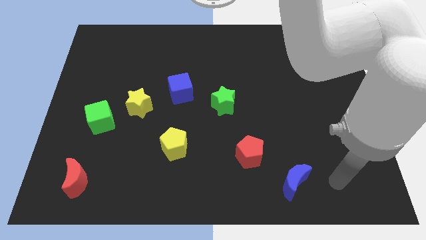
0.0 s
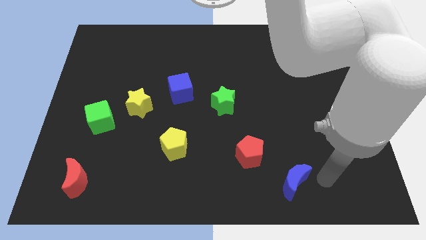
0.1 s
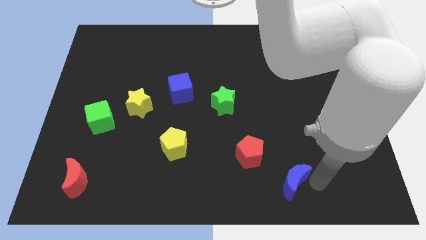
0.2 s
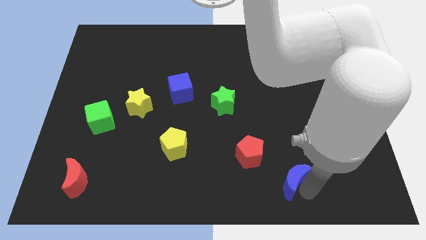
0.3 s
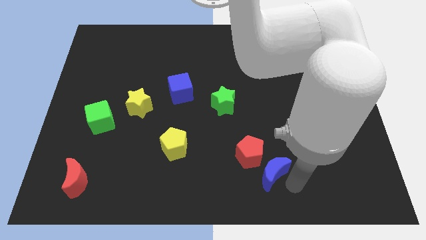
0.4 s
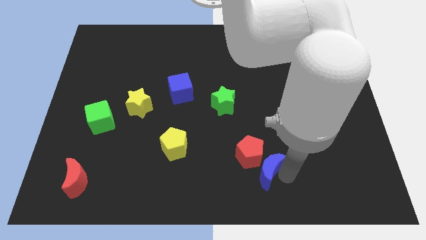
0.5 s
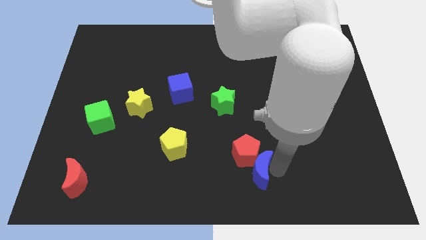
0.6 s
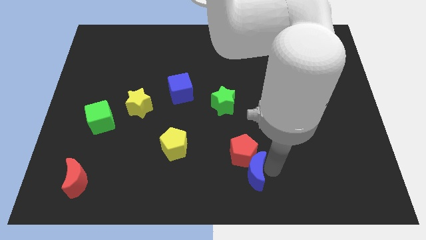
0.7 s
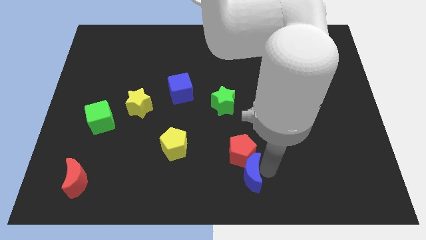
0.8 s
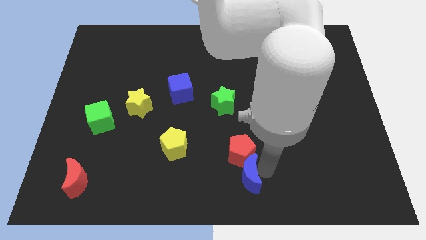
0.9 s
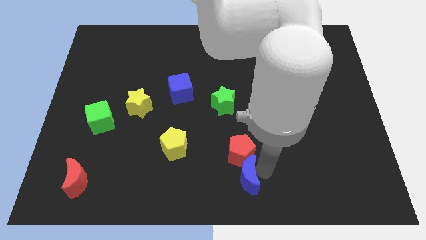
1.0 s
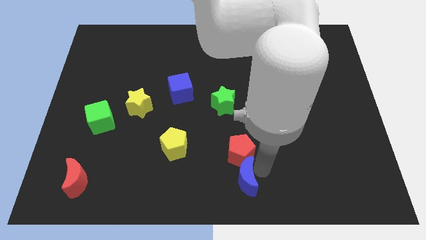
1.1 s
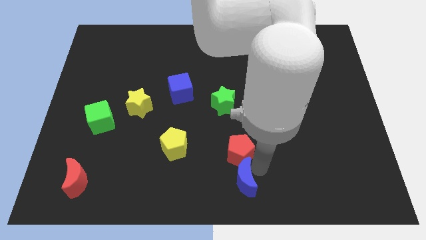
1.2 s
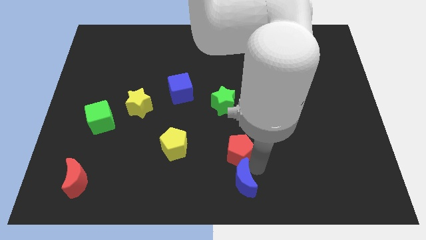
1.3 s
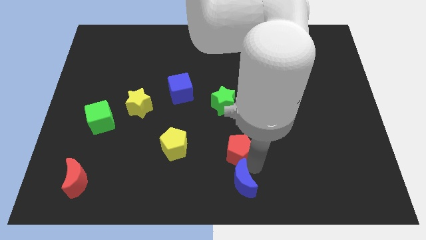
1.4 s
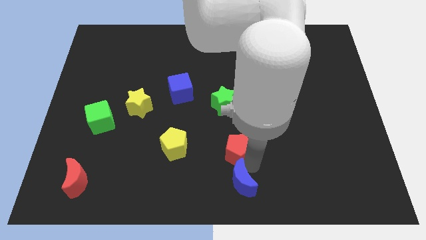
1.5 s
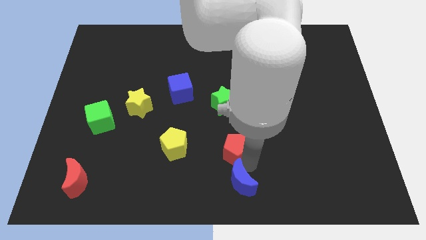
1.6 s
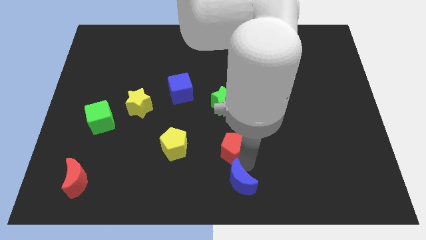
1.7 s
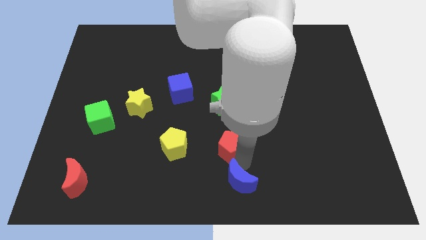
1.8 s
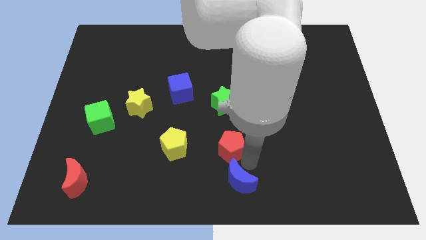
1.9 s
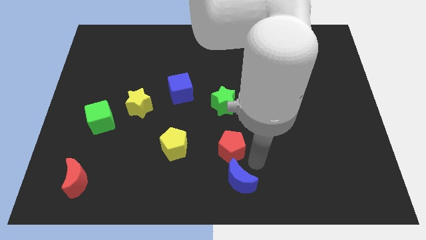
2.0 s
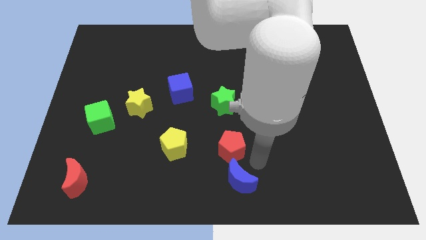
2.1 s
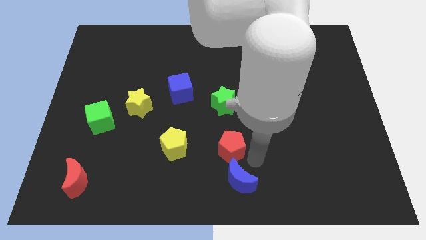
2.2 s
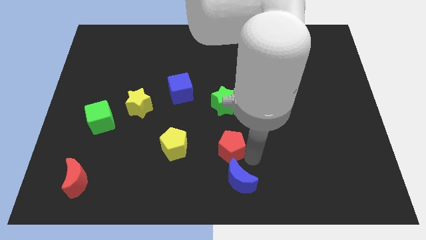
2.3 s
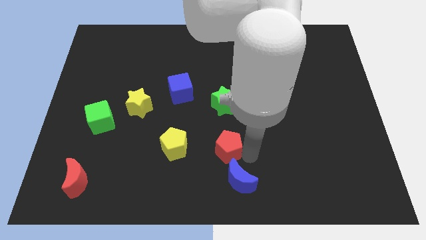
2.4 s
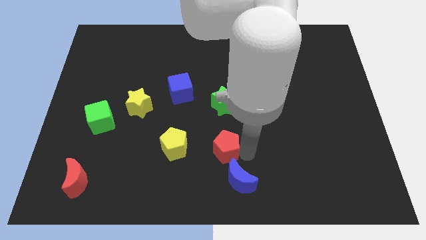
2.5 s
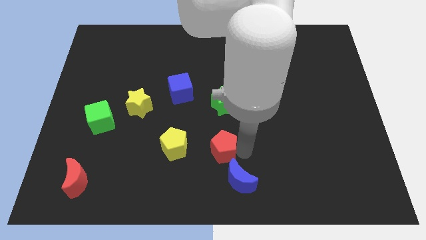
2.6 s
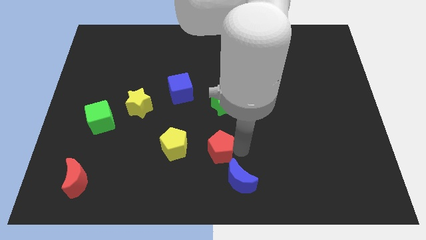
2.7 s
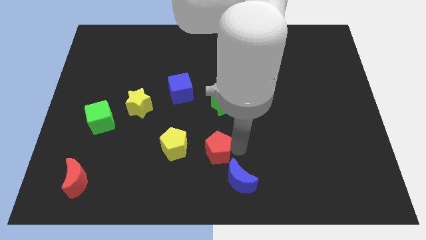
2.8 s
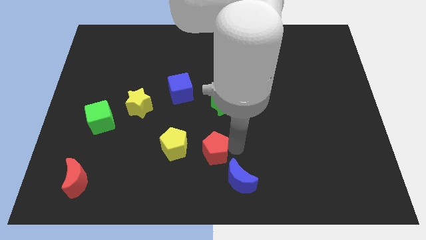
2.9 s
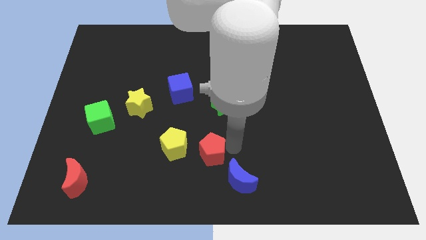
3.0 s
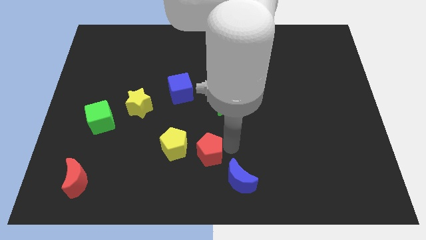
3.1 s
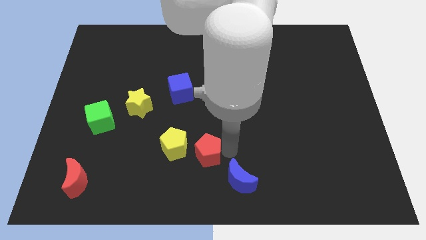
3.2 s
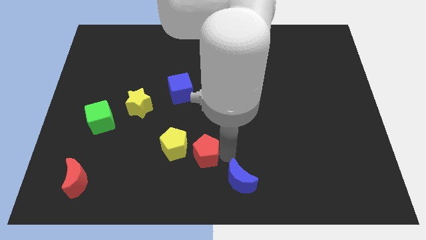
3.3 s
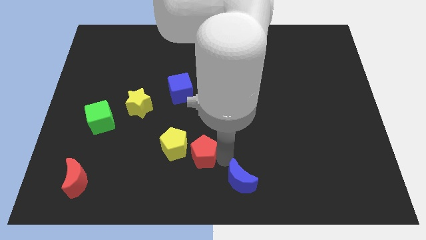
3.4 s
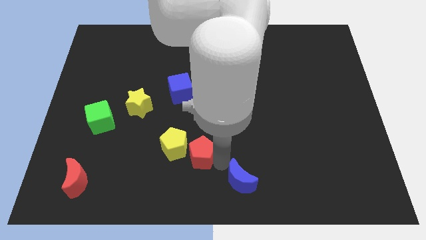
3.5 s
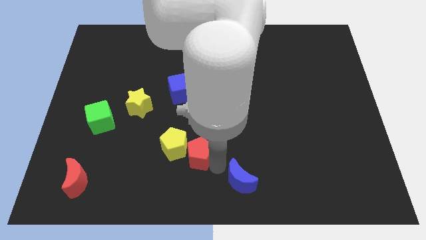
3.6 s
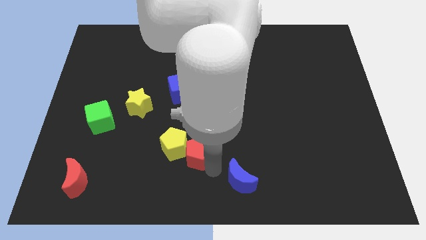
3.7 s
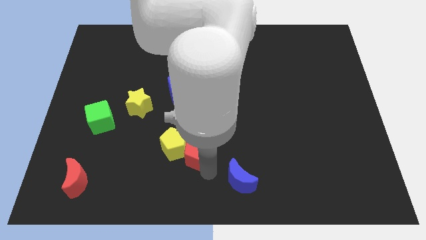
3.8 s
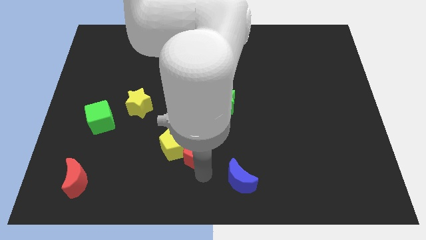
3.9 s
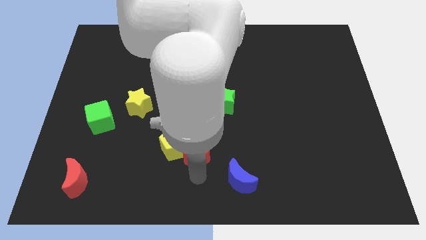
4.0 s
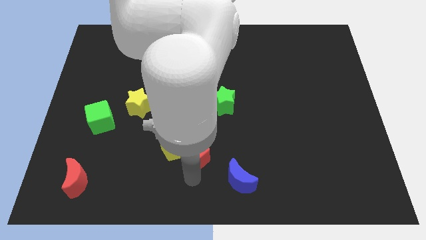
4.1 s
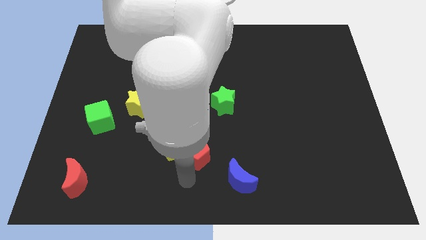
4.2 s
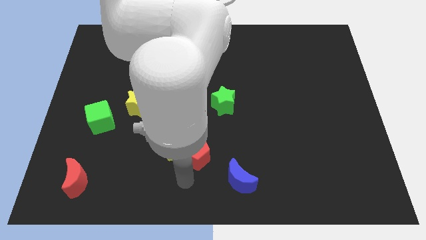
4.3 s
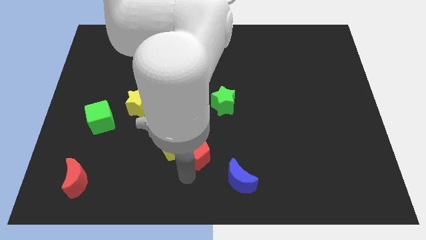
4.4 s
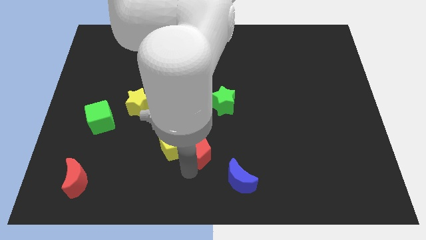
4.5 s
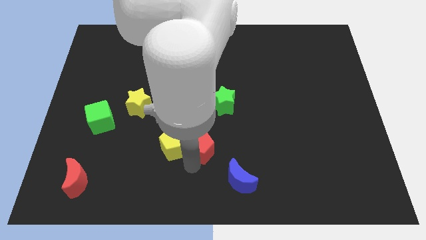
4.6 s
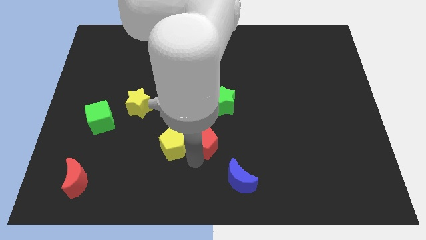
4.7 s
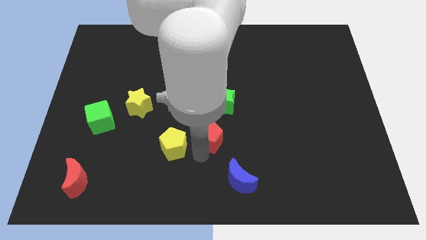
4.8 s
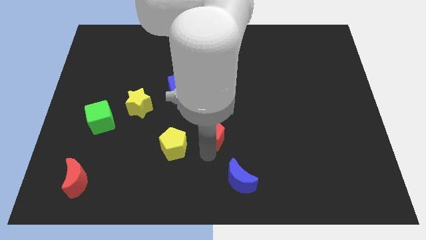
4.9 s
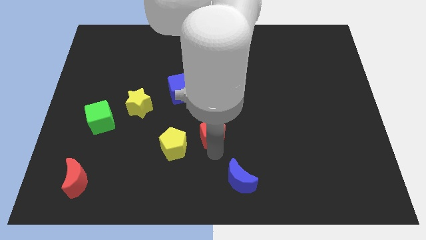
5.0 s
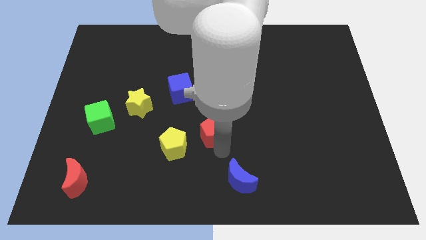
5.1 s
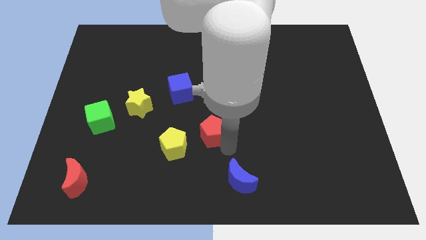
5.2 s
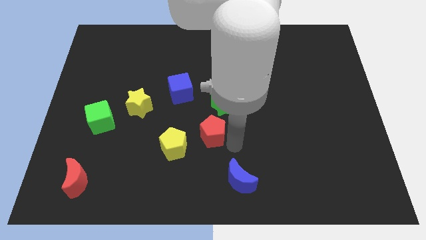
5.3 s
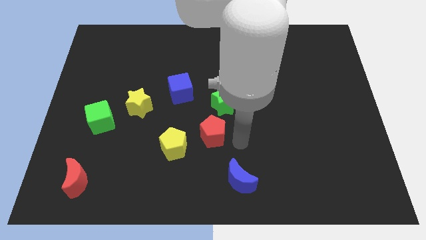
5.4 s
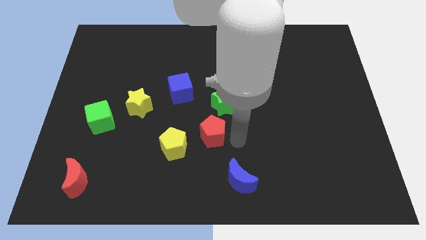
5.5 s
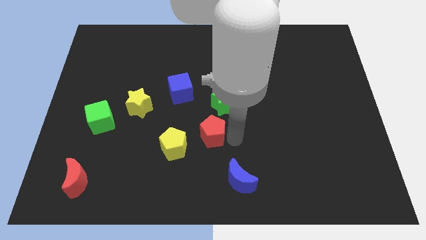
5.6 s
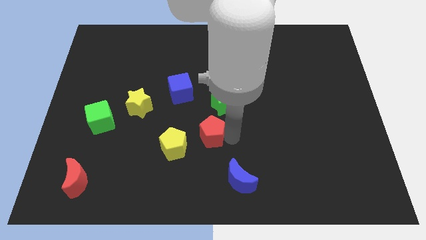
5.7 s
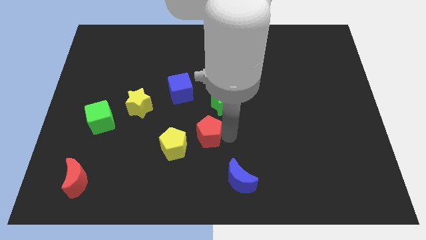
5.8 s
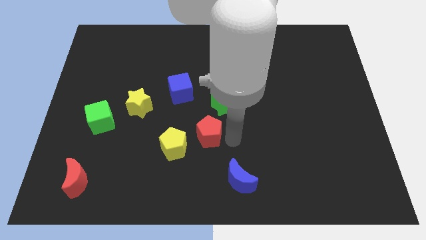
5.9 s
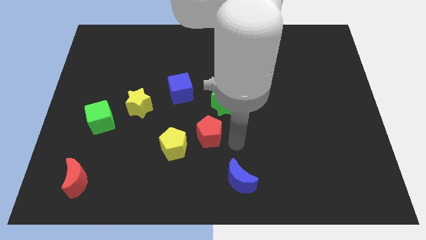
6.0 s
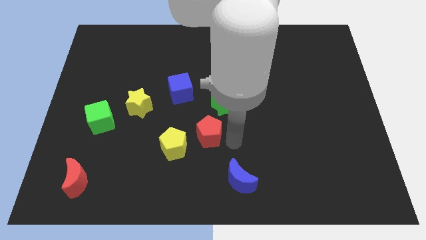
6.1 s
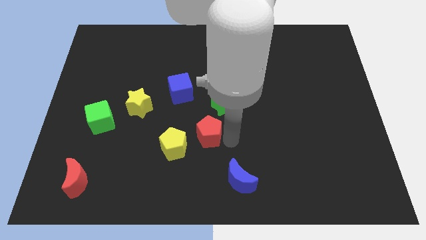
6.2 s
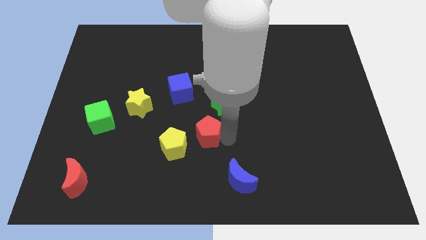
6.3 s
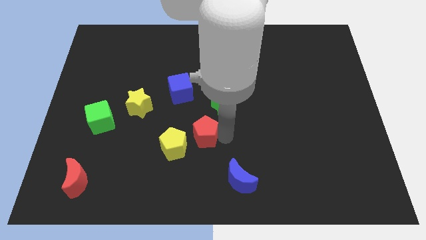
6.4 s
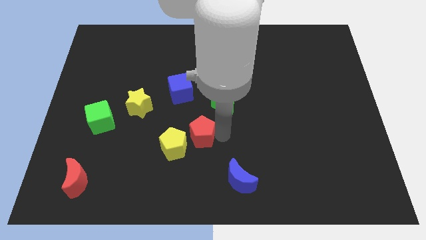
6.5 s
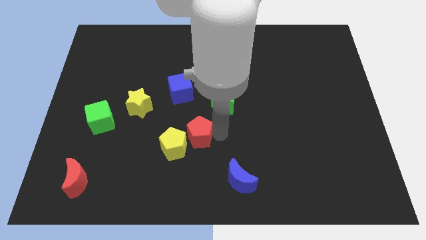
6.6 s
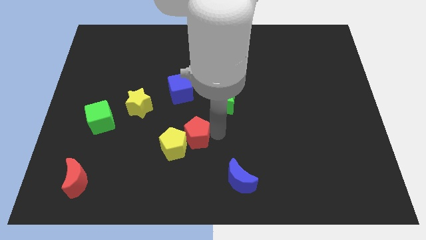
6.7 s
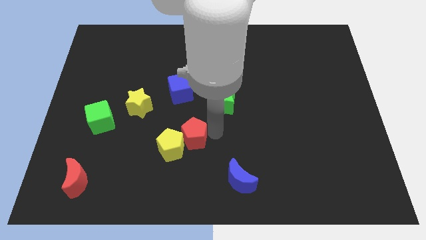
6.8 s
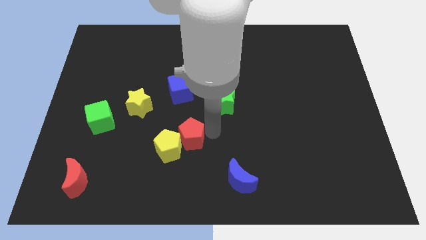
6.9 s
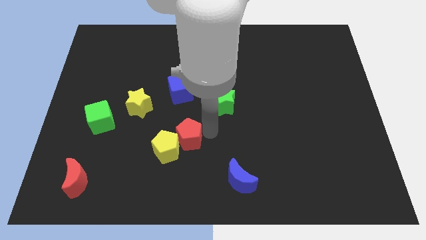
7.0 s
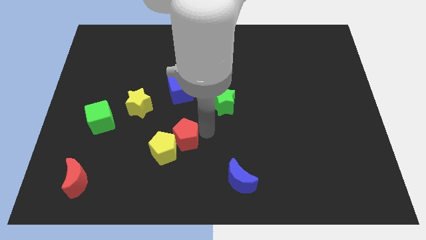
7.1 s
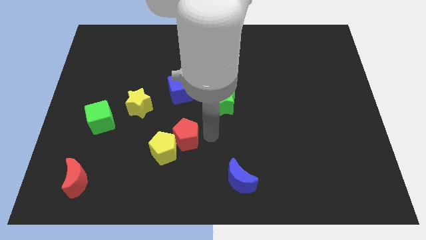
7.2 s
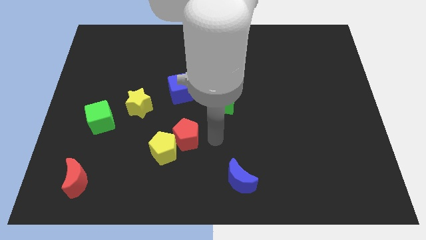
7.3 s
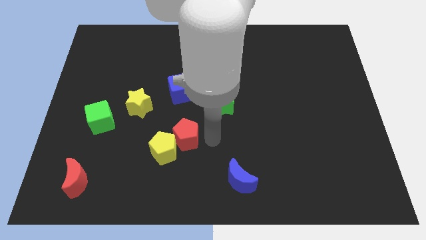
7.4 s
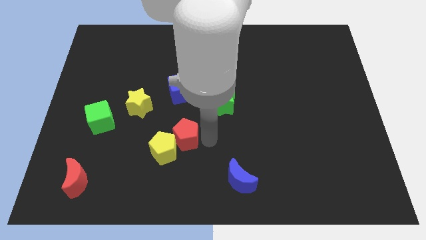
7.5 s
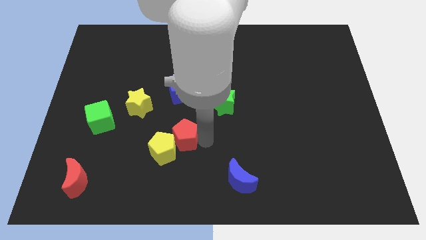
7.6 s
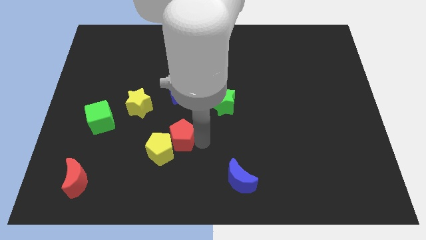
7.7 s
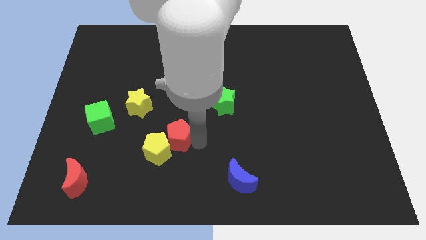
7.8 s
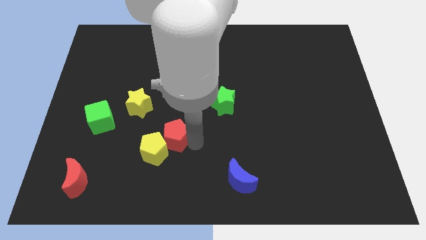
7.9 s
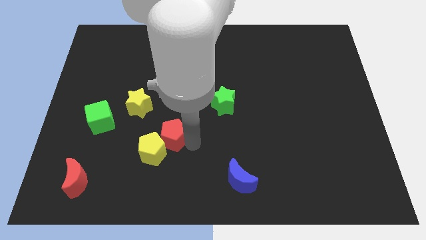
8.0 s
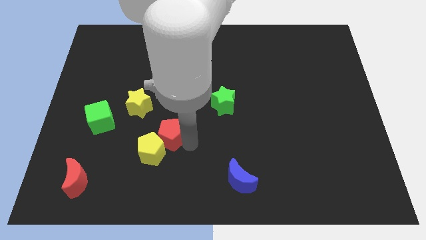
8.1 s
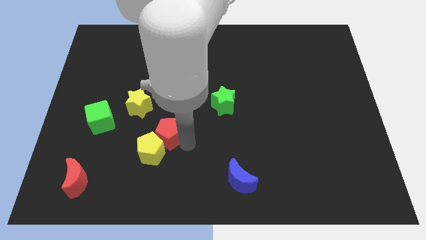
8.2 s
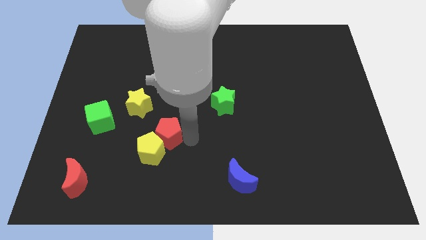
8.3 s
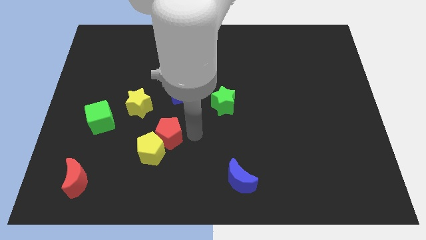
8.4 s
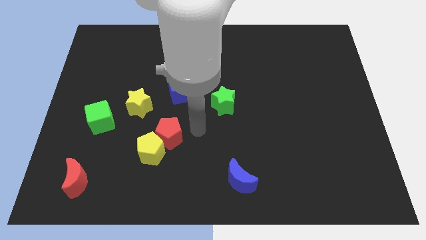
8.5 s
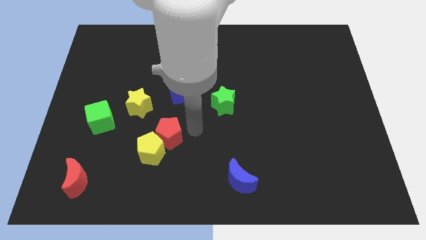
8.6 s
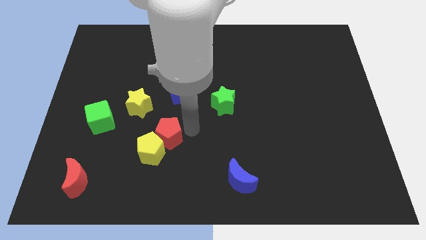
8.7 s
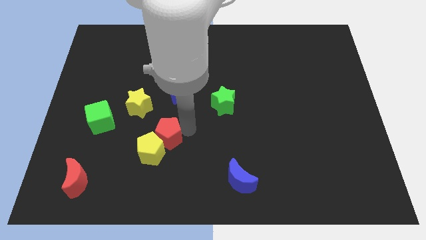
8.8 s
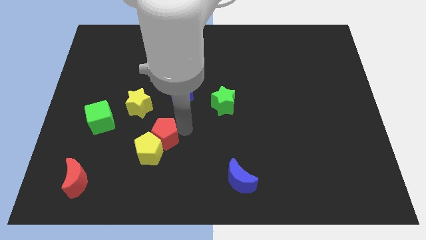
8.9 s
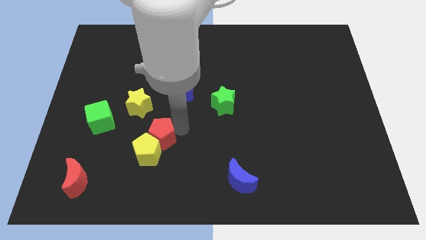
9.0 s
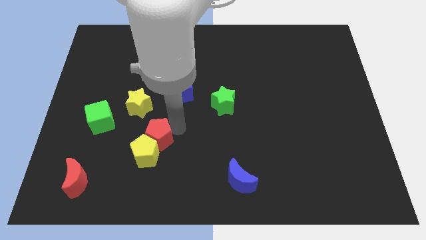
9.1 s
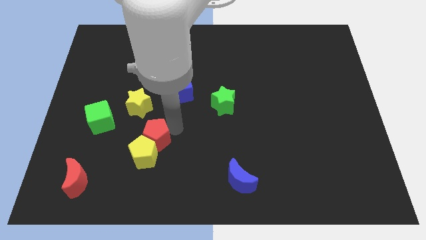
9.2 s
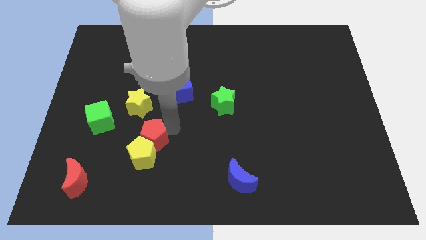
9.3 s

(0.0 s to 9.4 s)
move the red pentagon to the left
